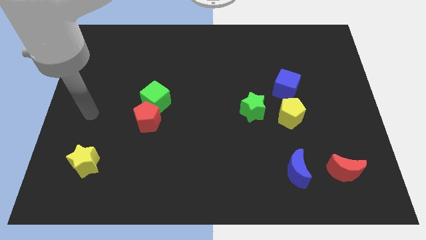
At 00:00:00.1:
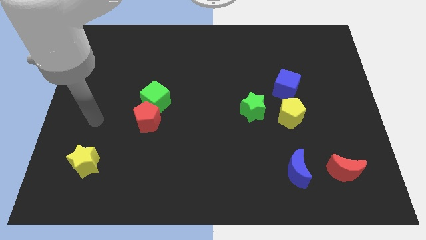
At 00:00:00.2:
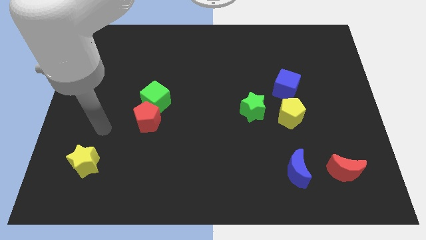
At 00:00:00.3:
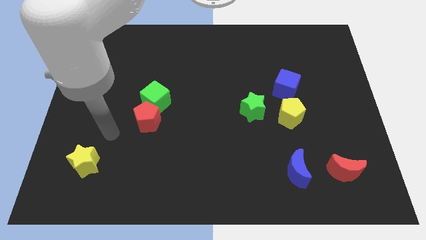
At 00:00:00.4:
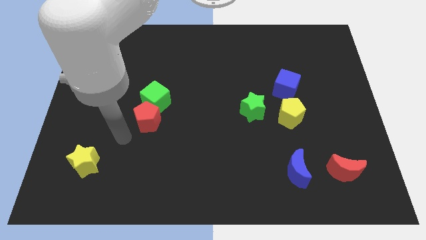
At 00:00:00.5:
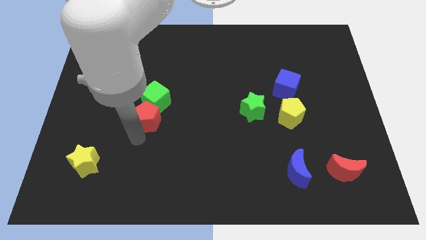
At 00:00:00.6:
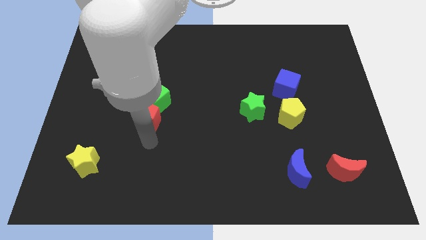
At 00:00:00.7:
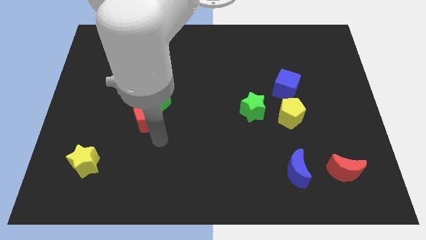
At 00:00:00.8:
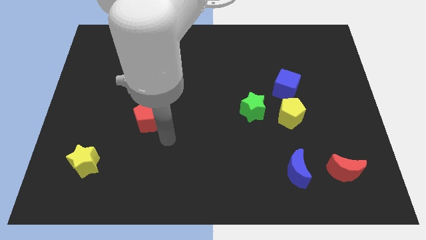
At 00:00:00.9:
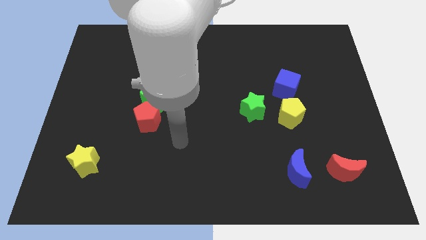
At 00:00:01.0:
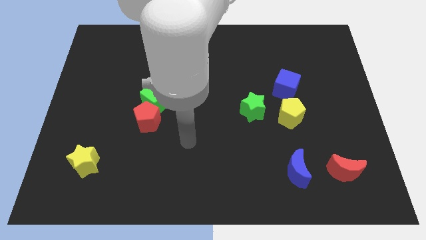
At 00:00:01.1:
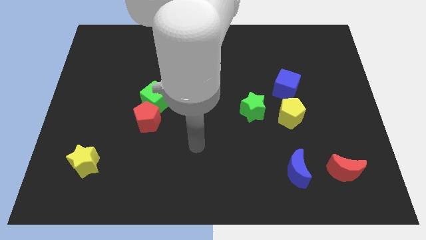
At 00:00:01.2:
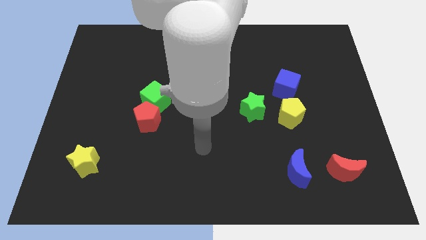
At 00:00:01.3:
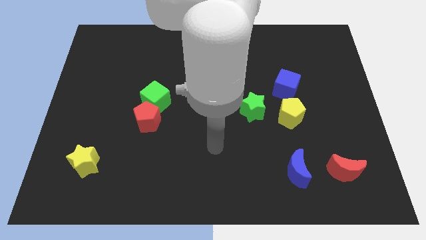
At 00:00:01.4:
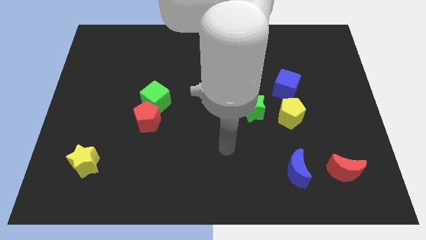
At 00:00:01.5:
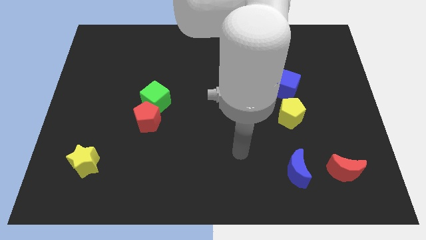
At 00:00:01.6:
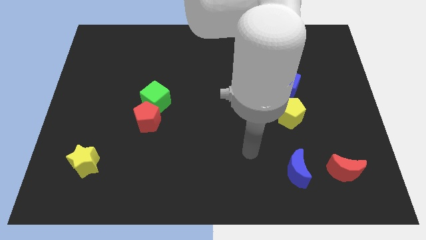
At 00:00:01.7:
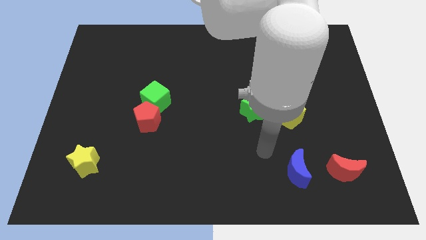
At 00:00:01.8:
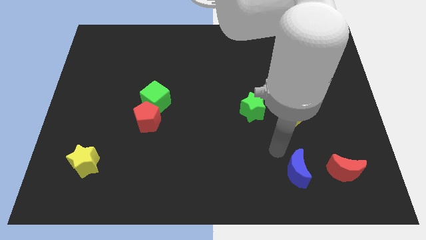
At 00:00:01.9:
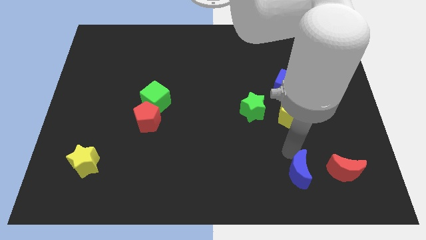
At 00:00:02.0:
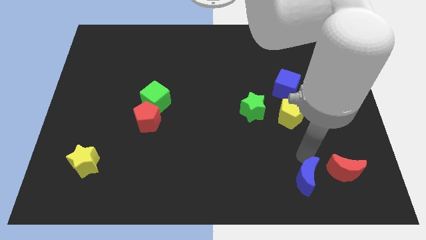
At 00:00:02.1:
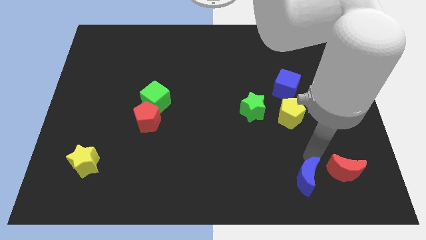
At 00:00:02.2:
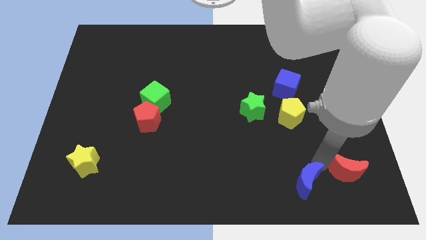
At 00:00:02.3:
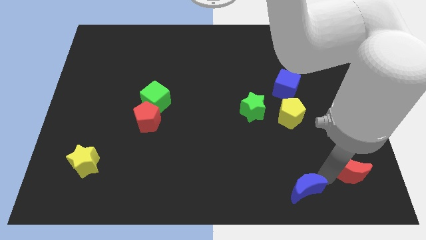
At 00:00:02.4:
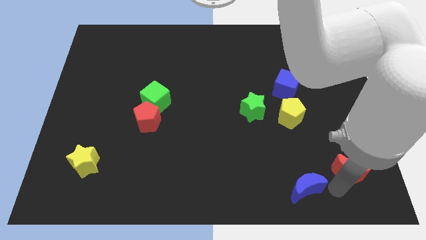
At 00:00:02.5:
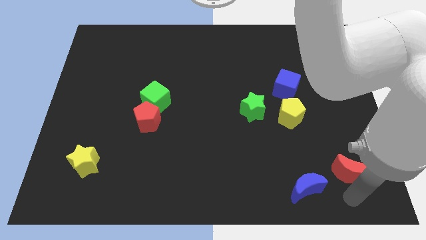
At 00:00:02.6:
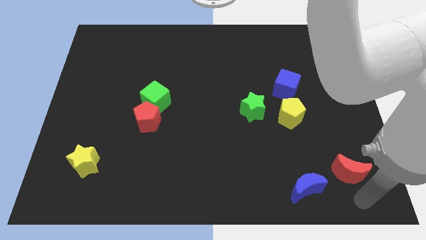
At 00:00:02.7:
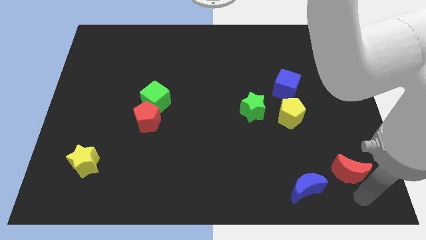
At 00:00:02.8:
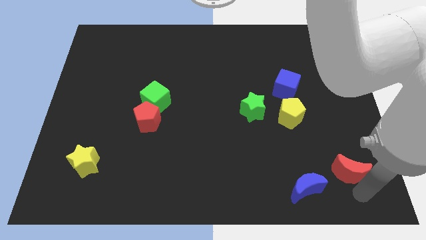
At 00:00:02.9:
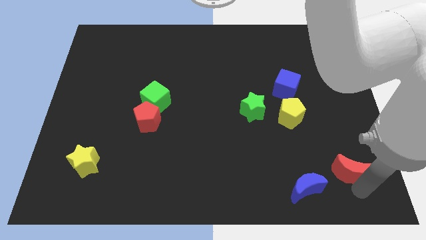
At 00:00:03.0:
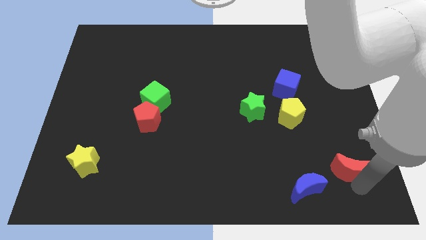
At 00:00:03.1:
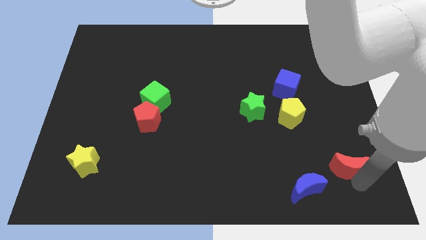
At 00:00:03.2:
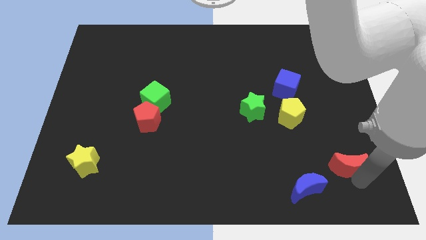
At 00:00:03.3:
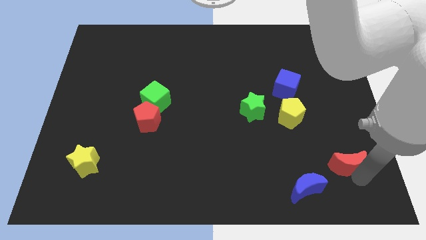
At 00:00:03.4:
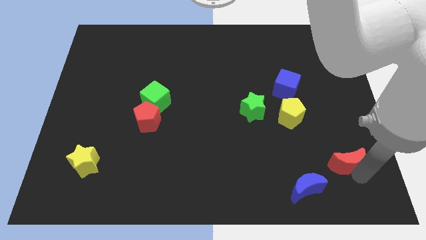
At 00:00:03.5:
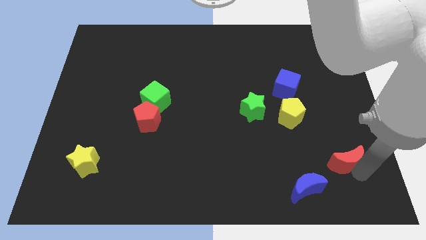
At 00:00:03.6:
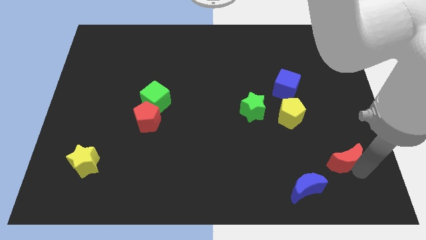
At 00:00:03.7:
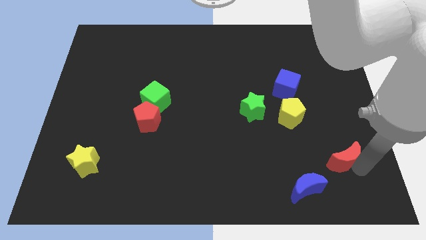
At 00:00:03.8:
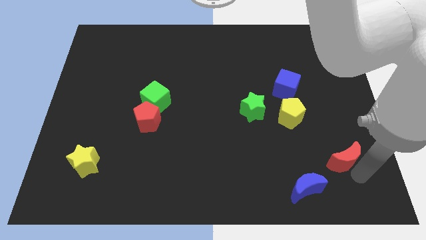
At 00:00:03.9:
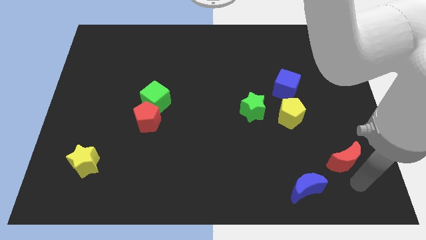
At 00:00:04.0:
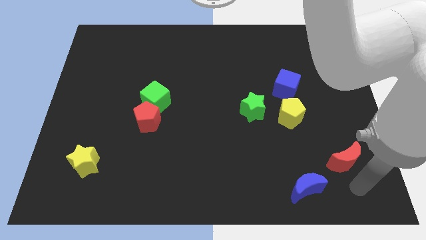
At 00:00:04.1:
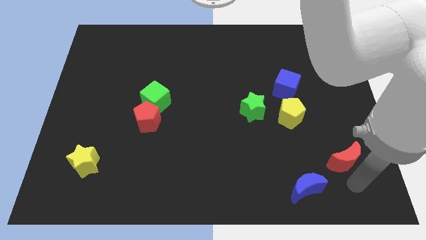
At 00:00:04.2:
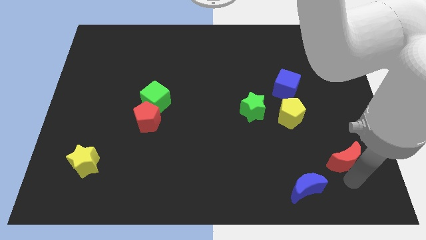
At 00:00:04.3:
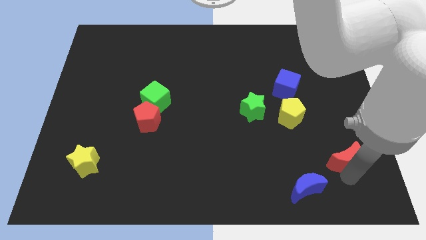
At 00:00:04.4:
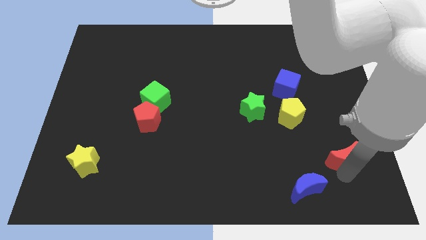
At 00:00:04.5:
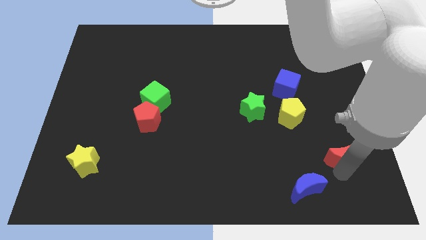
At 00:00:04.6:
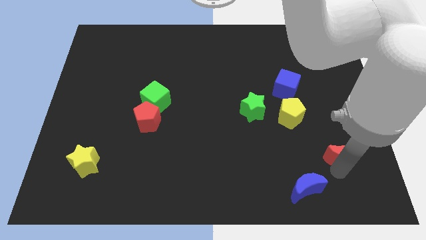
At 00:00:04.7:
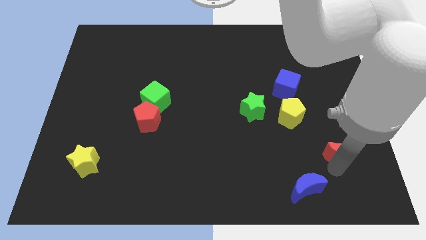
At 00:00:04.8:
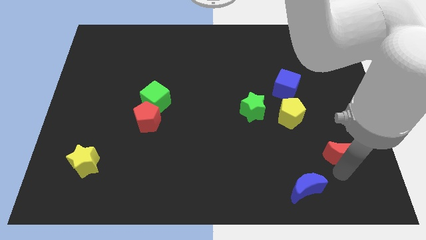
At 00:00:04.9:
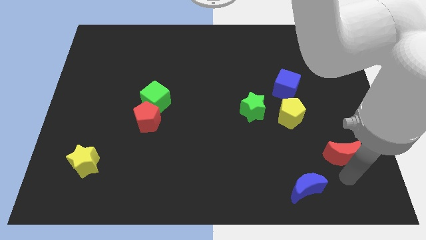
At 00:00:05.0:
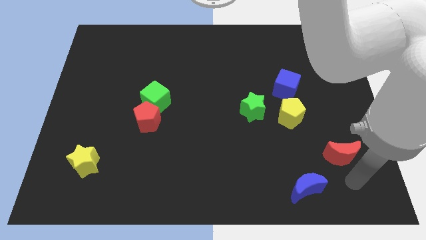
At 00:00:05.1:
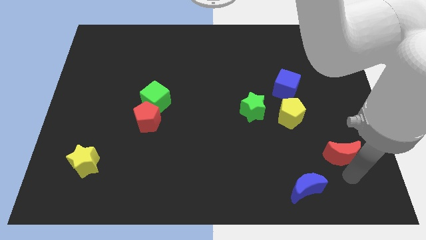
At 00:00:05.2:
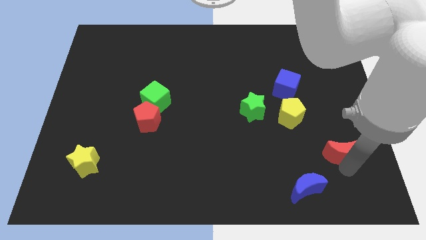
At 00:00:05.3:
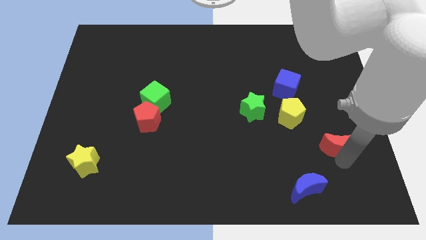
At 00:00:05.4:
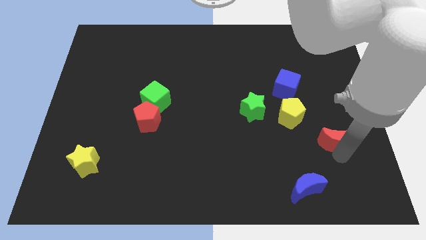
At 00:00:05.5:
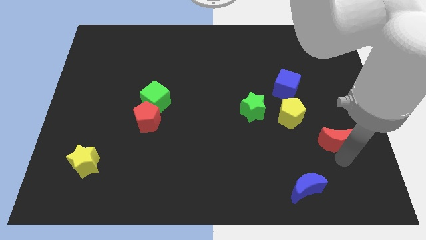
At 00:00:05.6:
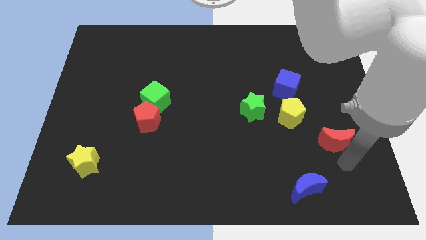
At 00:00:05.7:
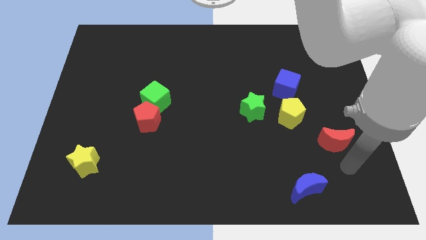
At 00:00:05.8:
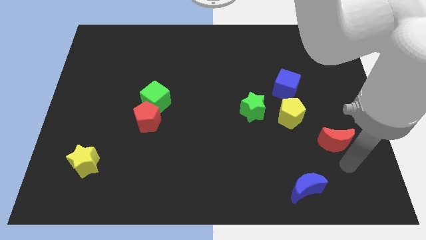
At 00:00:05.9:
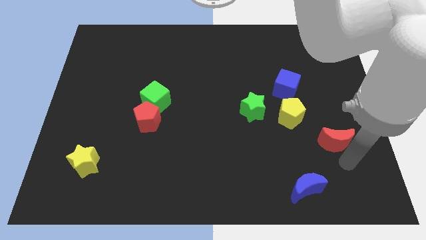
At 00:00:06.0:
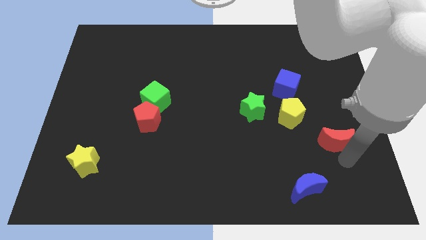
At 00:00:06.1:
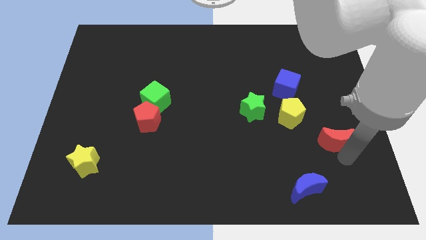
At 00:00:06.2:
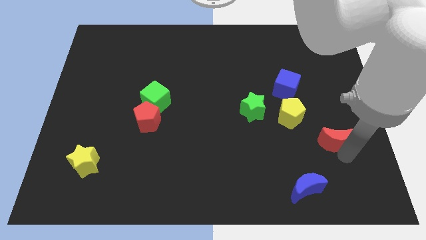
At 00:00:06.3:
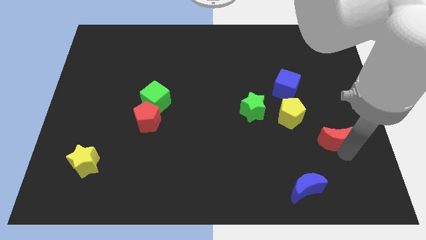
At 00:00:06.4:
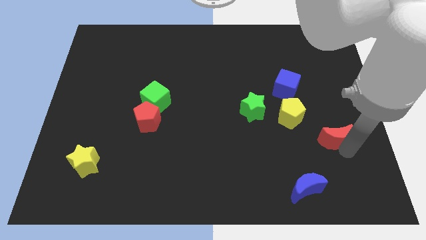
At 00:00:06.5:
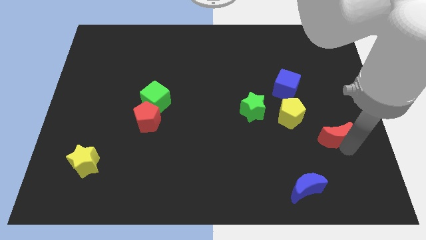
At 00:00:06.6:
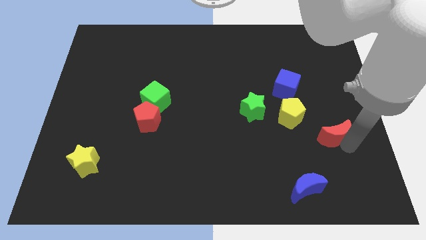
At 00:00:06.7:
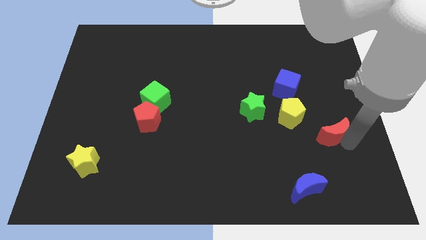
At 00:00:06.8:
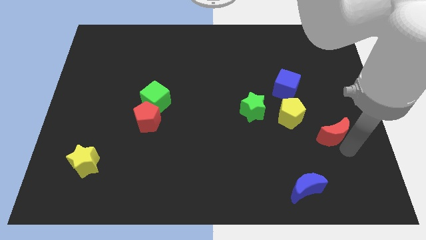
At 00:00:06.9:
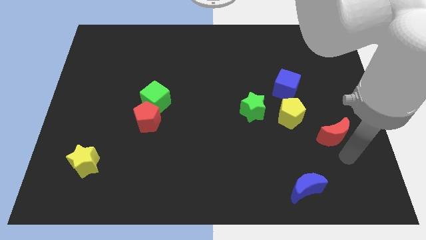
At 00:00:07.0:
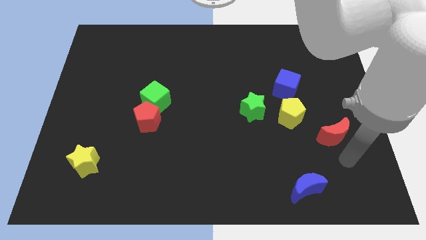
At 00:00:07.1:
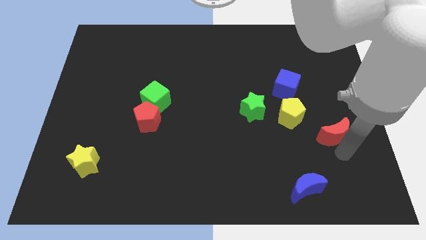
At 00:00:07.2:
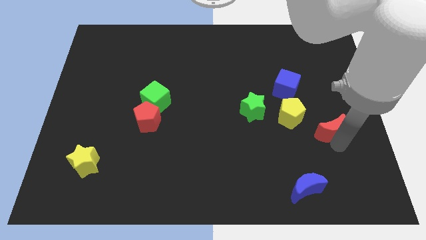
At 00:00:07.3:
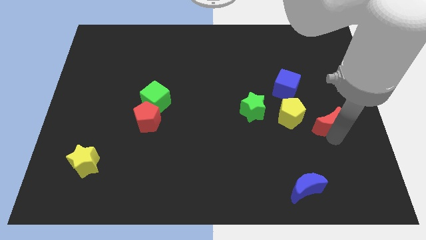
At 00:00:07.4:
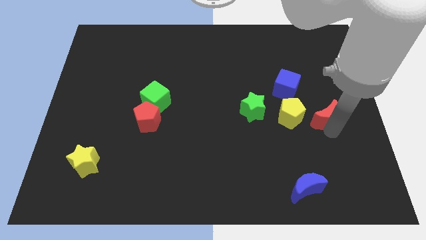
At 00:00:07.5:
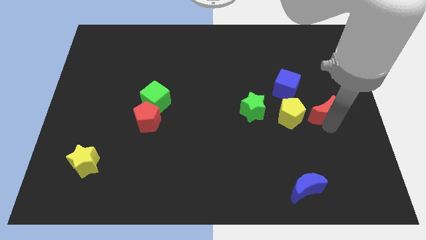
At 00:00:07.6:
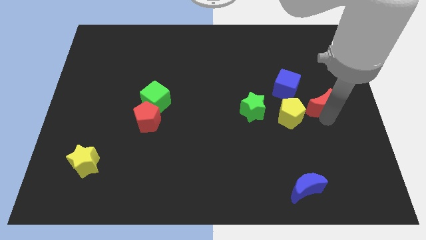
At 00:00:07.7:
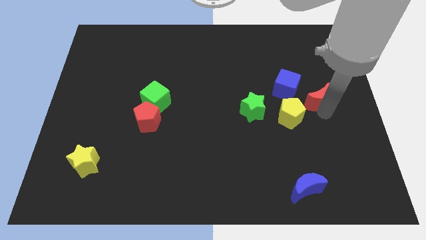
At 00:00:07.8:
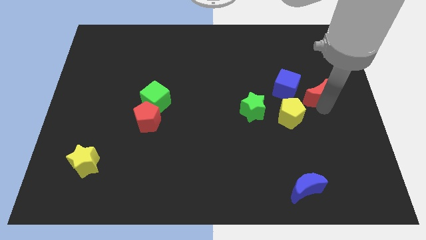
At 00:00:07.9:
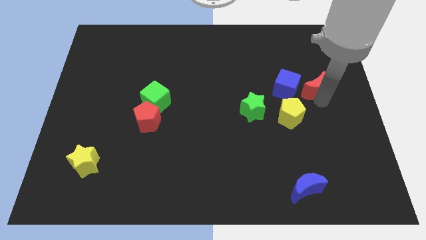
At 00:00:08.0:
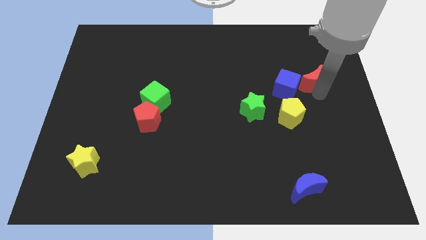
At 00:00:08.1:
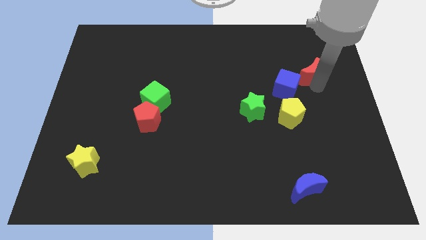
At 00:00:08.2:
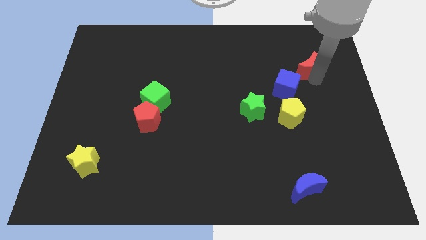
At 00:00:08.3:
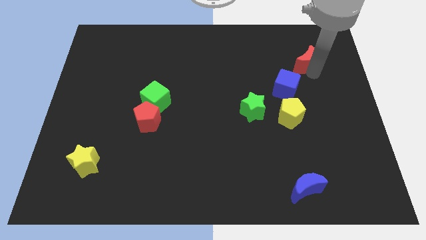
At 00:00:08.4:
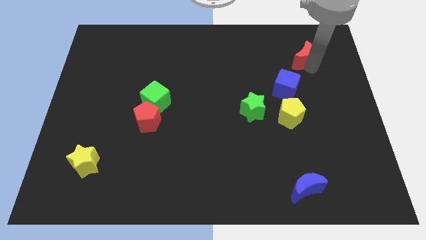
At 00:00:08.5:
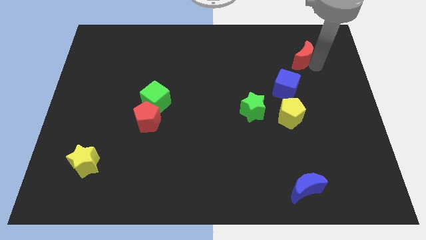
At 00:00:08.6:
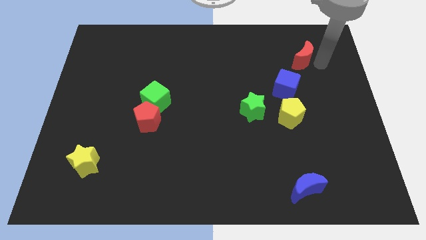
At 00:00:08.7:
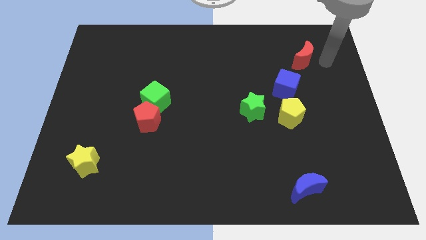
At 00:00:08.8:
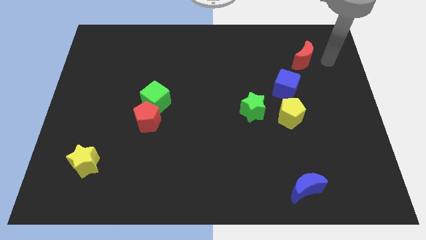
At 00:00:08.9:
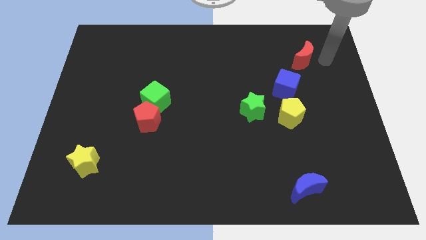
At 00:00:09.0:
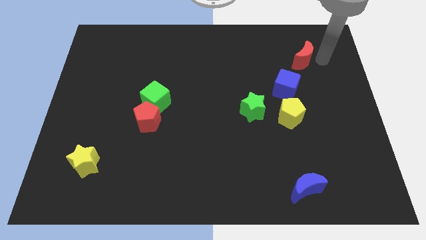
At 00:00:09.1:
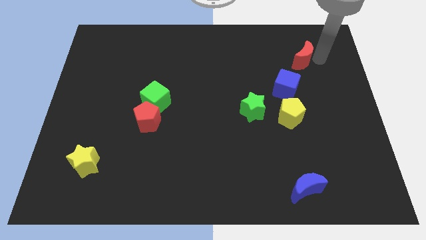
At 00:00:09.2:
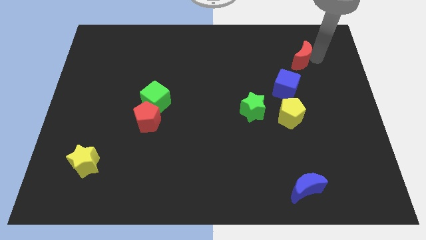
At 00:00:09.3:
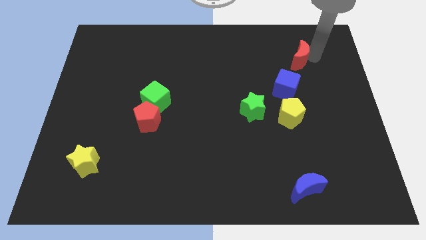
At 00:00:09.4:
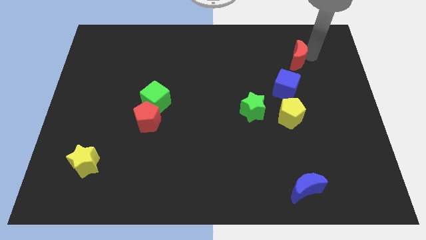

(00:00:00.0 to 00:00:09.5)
put the red moon to the top of the blue cube
